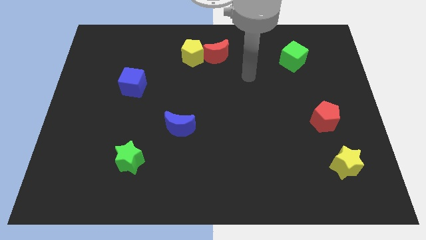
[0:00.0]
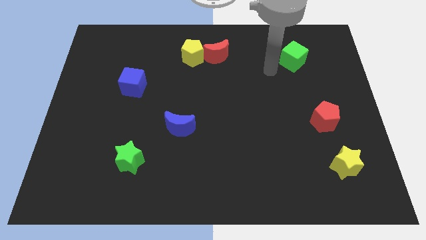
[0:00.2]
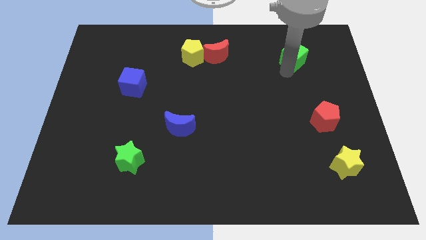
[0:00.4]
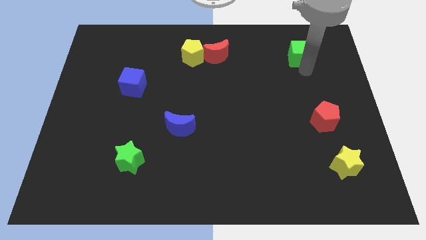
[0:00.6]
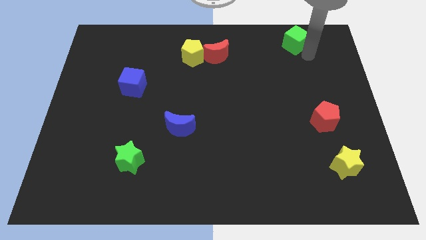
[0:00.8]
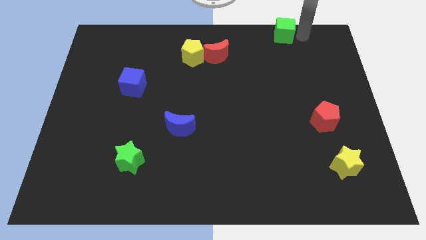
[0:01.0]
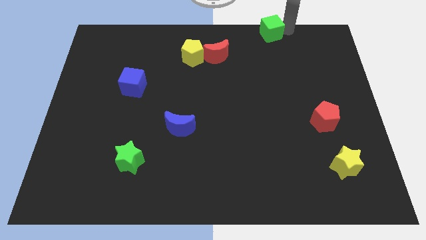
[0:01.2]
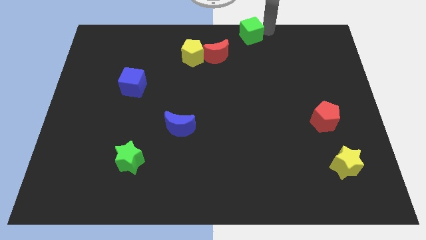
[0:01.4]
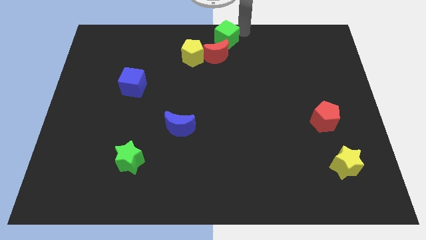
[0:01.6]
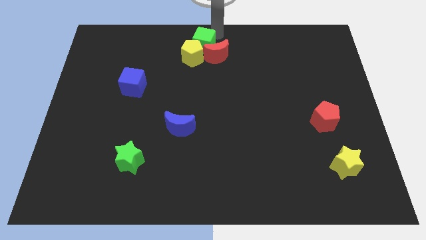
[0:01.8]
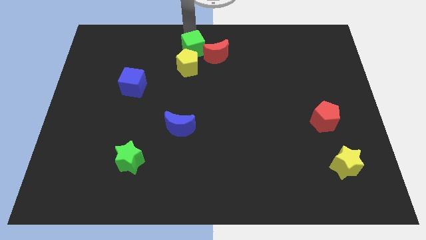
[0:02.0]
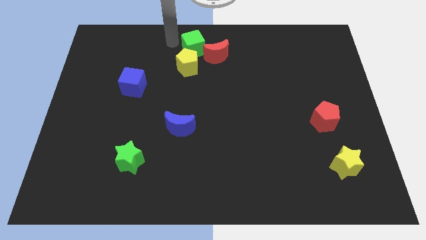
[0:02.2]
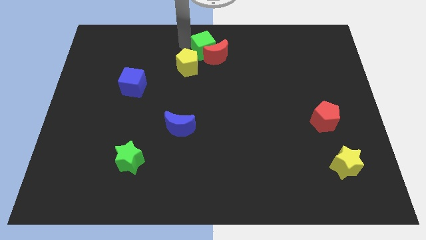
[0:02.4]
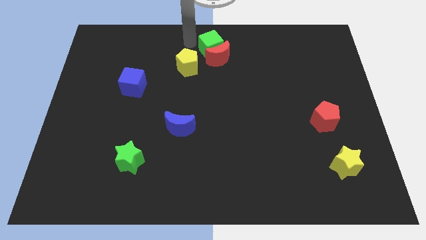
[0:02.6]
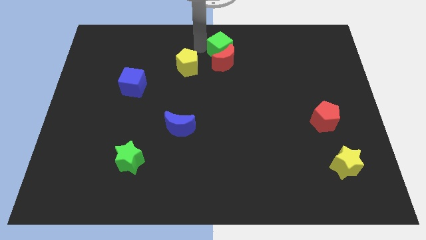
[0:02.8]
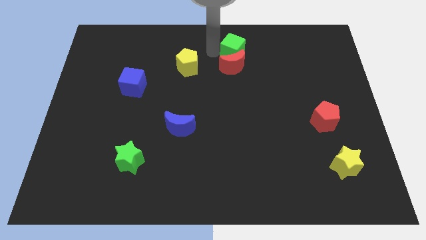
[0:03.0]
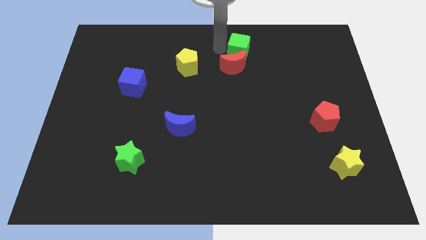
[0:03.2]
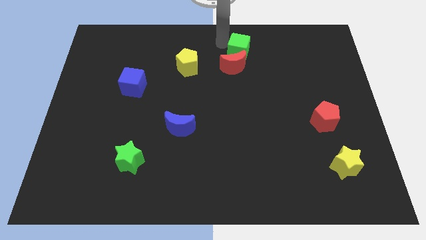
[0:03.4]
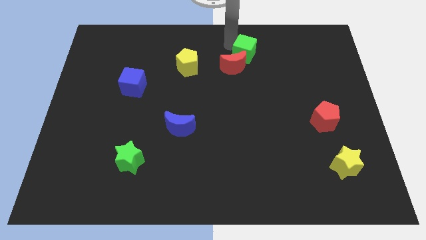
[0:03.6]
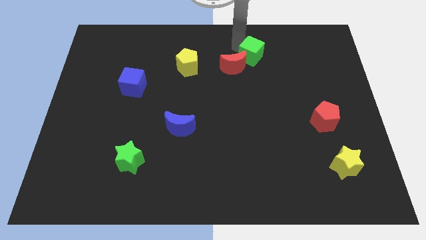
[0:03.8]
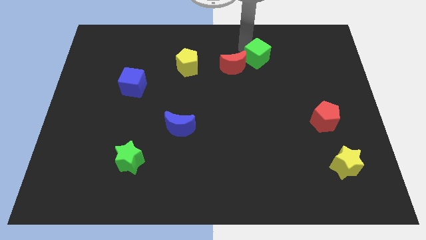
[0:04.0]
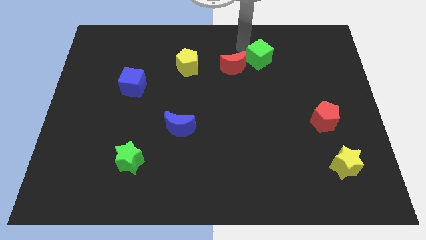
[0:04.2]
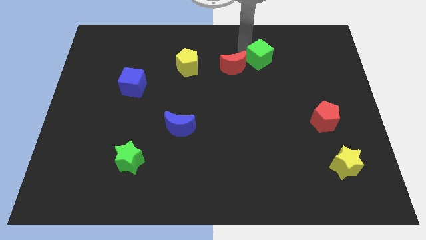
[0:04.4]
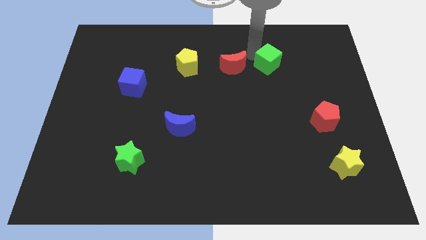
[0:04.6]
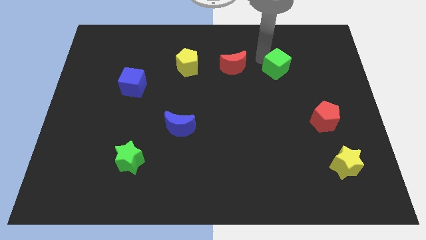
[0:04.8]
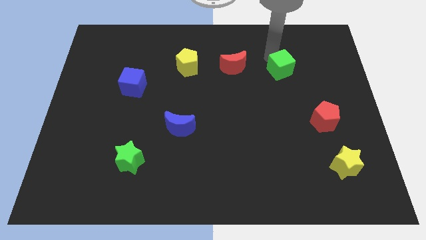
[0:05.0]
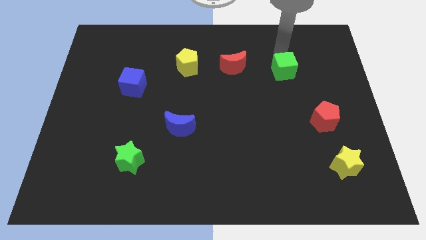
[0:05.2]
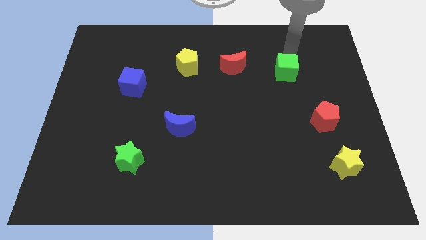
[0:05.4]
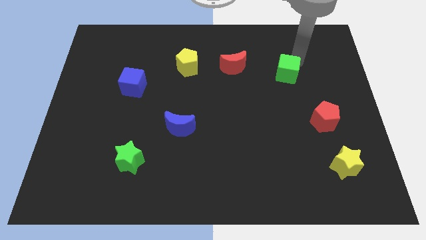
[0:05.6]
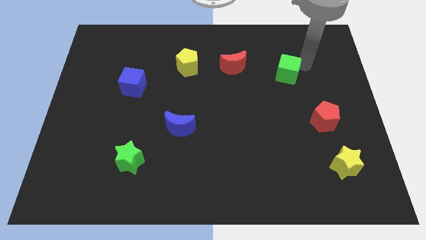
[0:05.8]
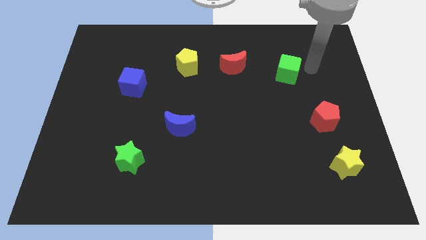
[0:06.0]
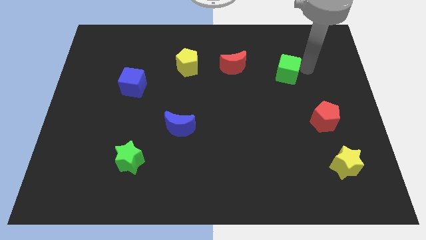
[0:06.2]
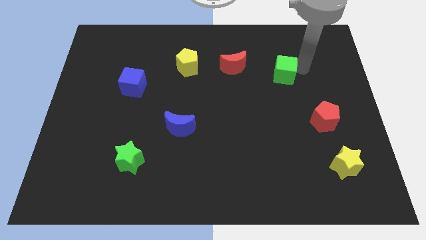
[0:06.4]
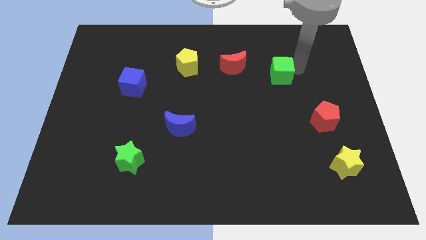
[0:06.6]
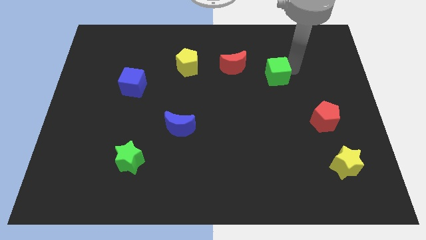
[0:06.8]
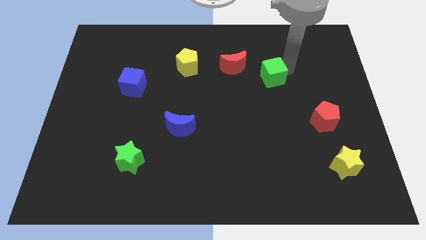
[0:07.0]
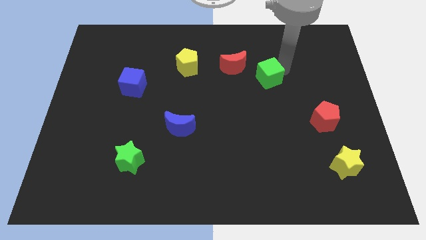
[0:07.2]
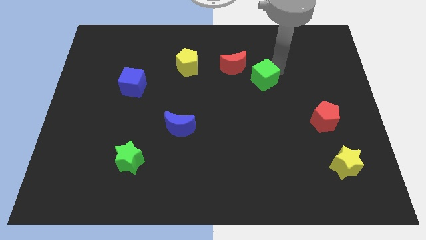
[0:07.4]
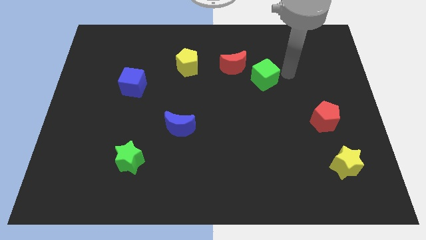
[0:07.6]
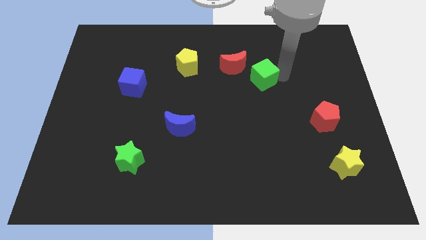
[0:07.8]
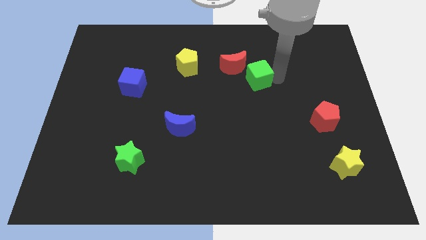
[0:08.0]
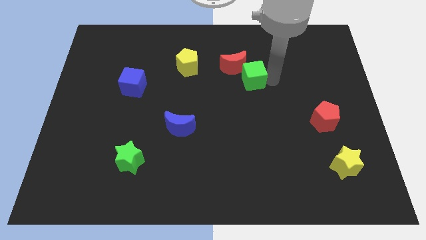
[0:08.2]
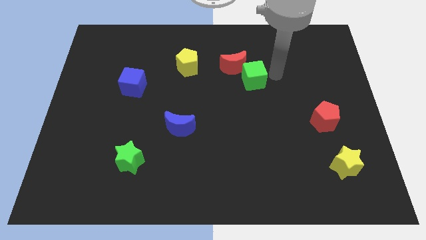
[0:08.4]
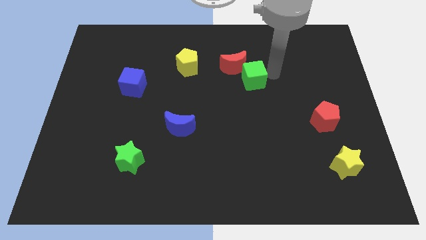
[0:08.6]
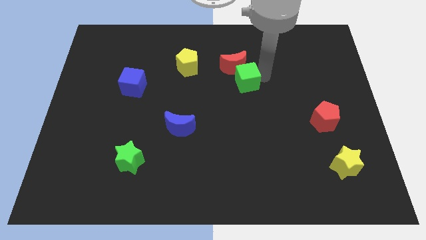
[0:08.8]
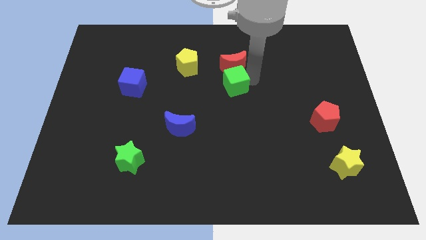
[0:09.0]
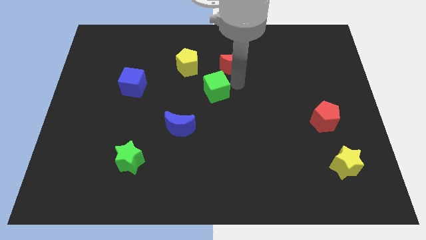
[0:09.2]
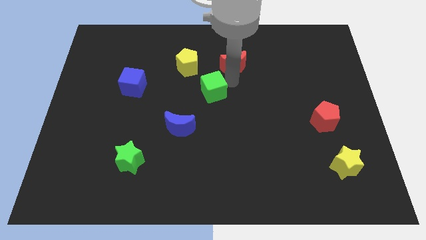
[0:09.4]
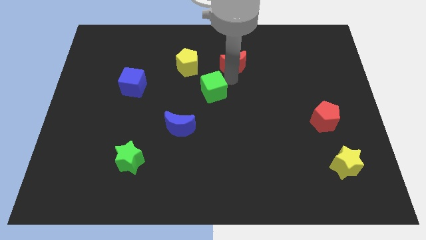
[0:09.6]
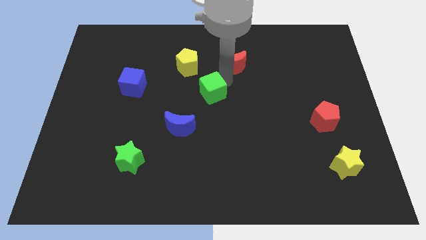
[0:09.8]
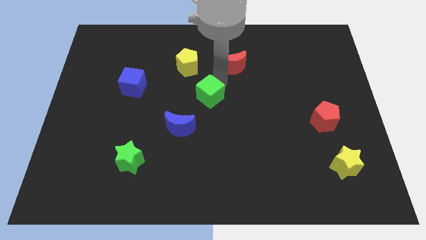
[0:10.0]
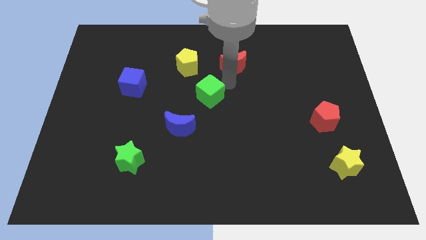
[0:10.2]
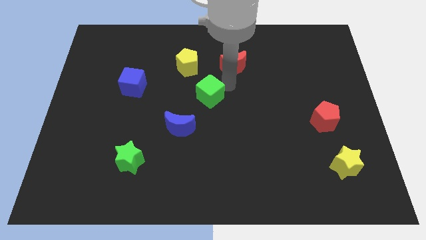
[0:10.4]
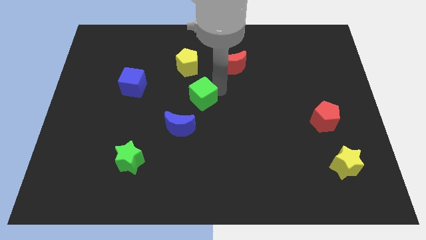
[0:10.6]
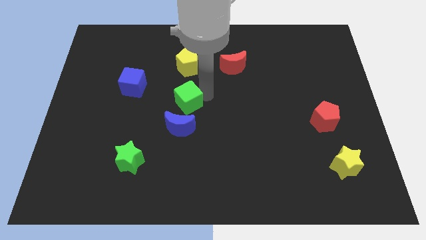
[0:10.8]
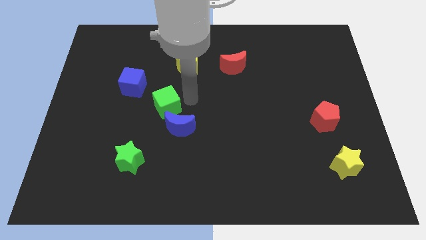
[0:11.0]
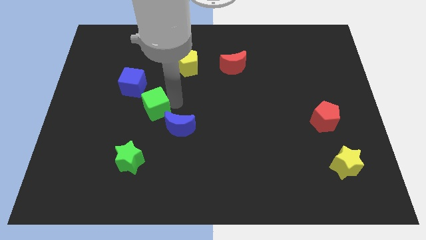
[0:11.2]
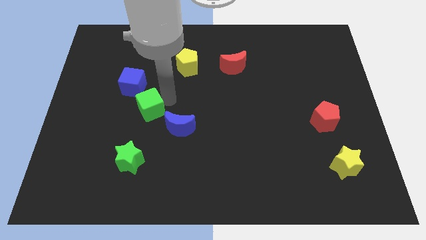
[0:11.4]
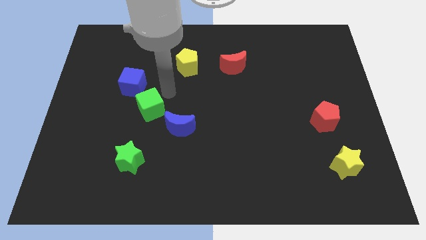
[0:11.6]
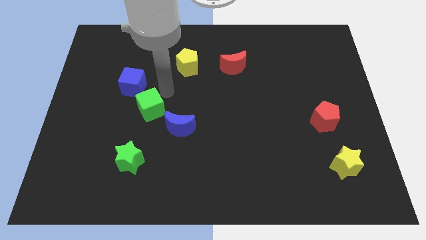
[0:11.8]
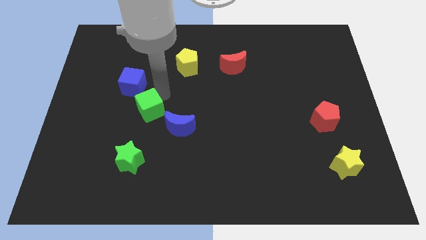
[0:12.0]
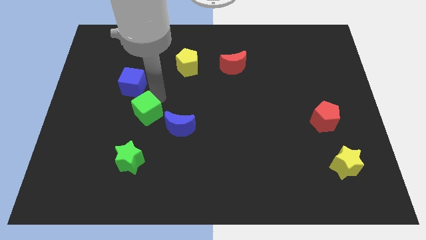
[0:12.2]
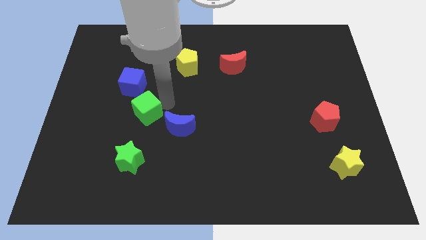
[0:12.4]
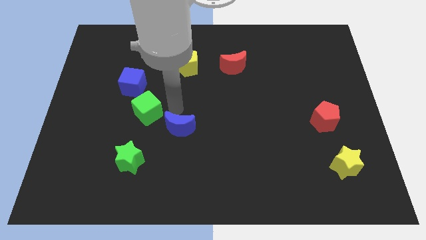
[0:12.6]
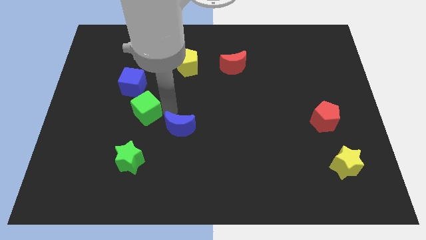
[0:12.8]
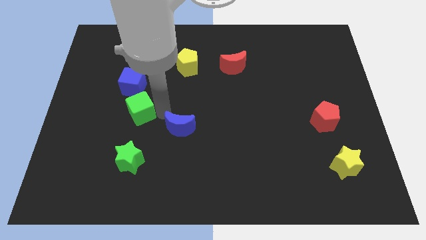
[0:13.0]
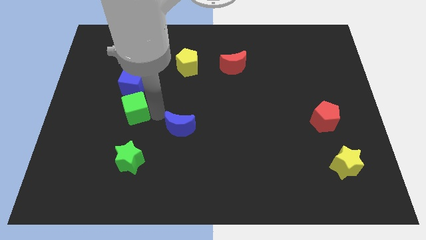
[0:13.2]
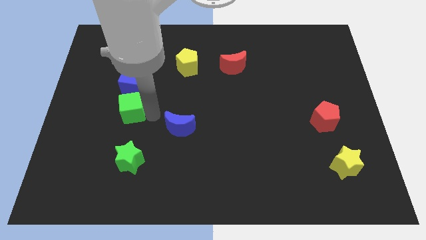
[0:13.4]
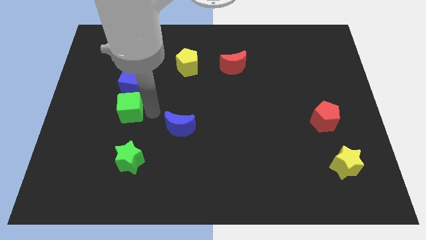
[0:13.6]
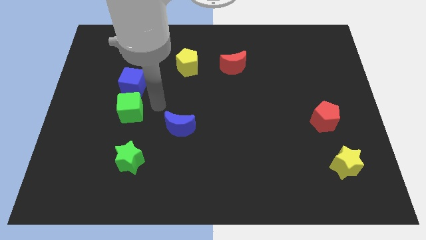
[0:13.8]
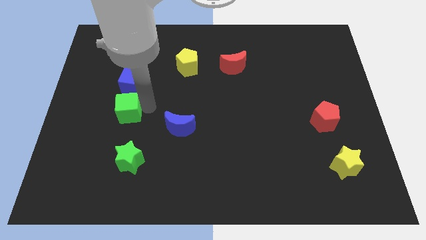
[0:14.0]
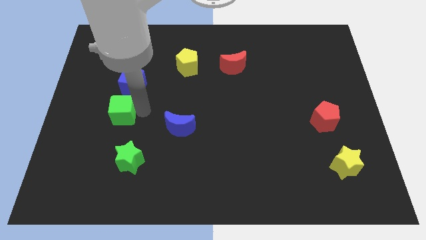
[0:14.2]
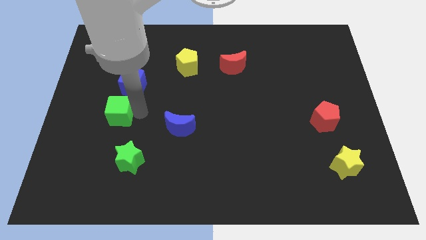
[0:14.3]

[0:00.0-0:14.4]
put the green cube diagonally down and to the left of the blue cube
